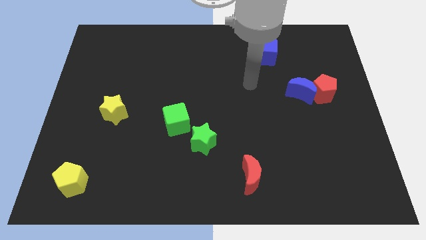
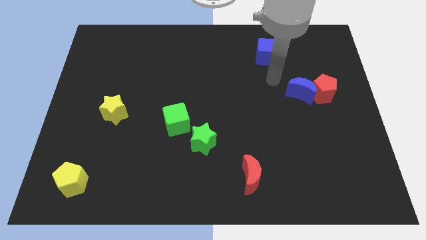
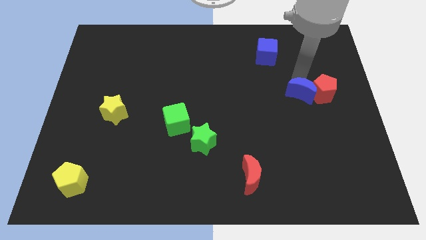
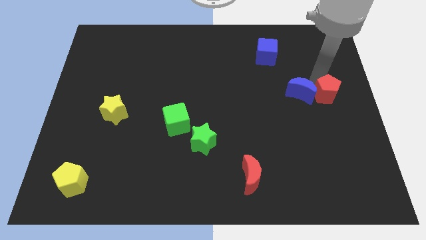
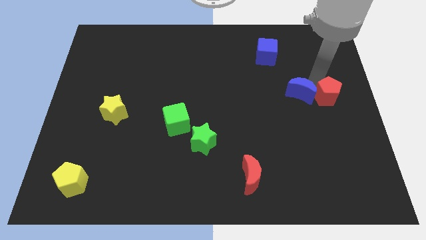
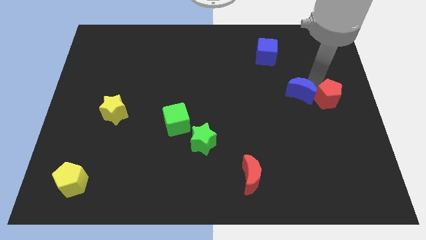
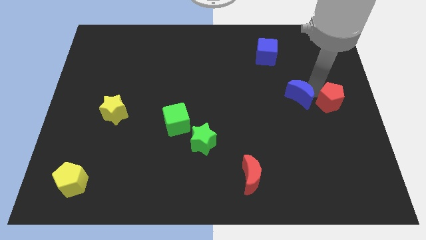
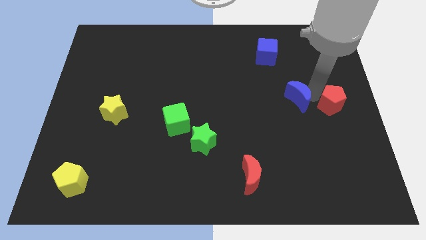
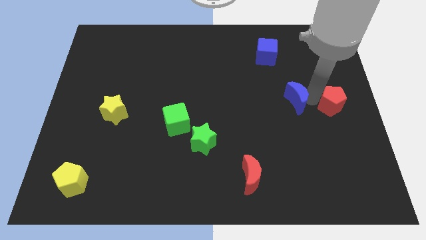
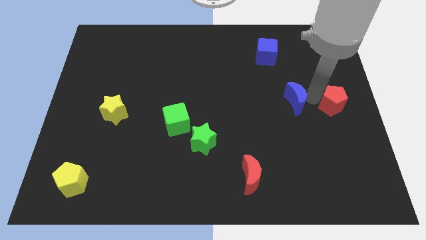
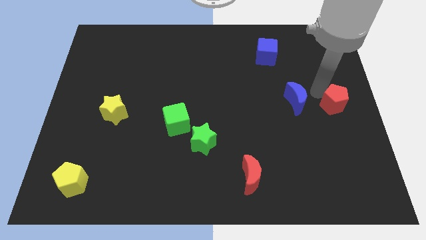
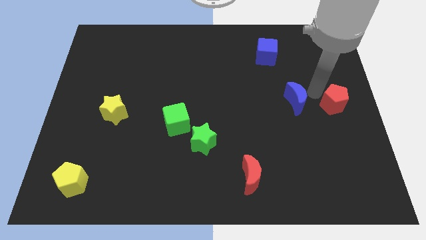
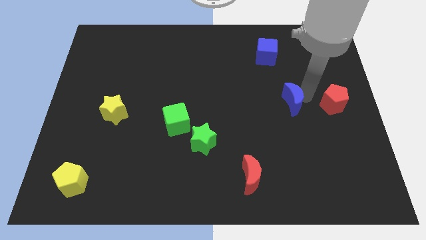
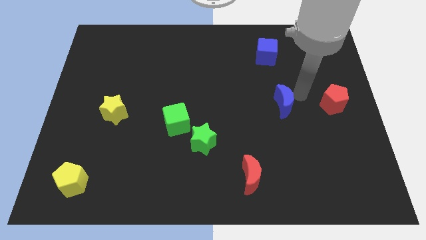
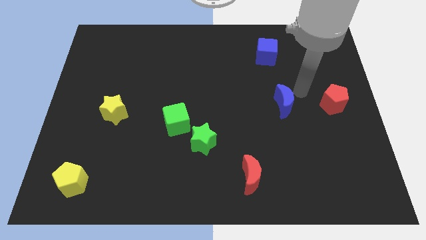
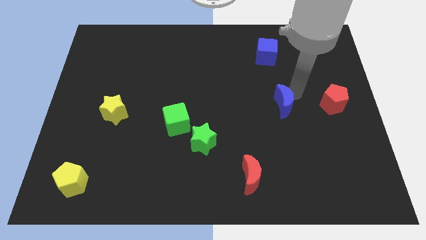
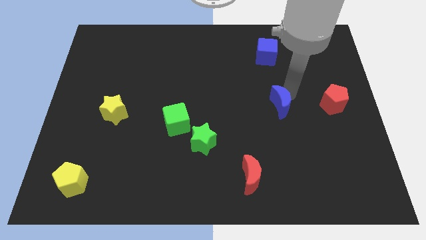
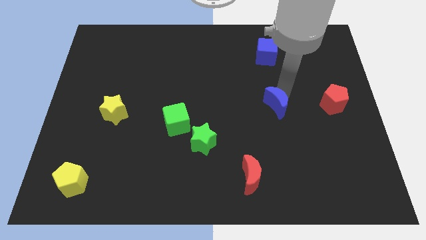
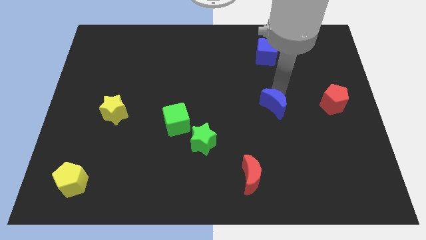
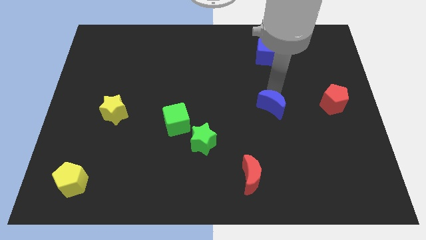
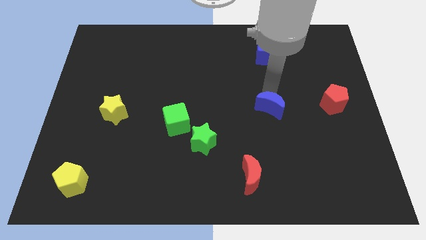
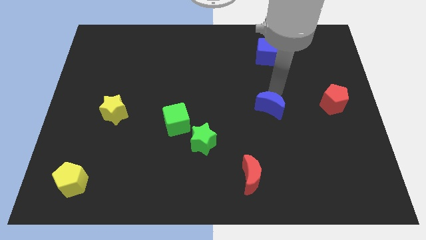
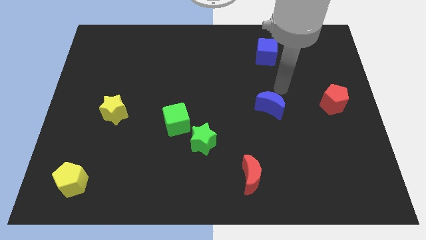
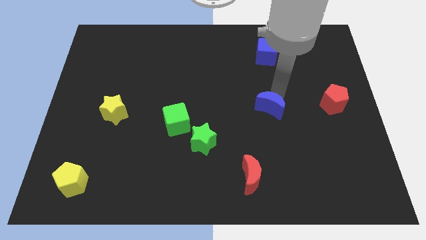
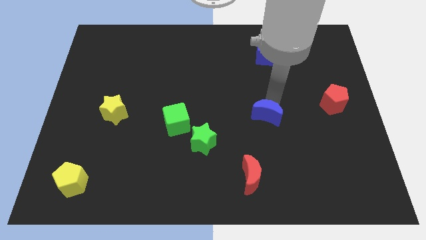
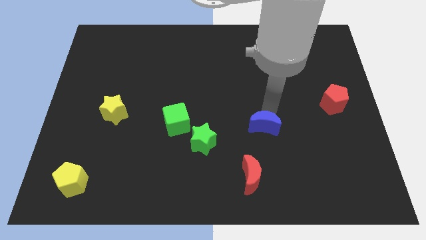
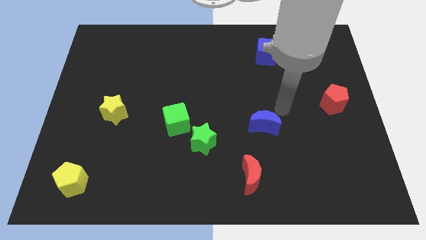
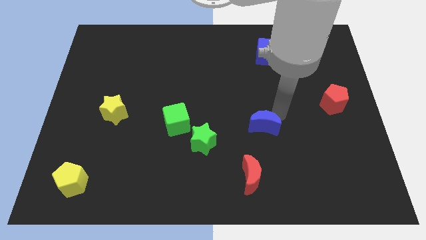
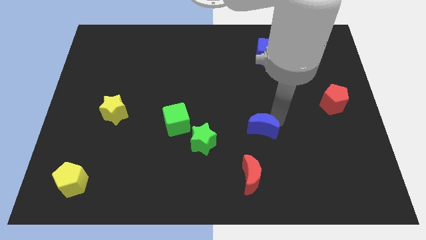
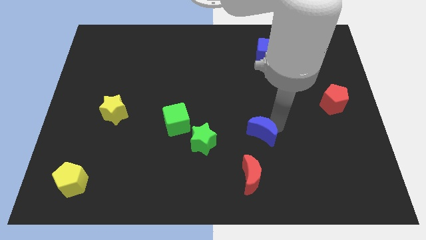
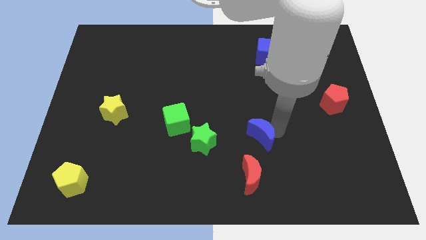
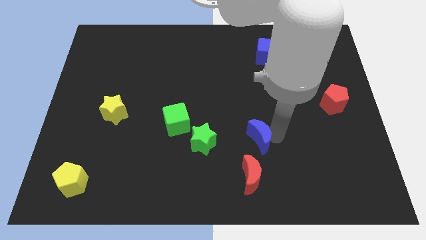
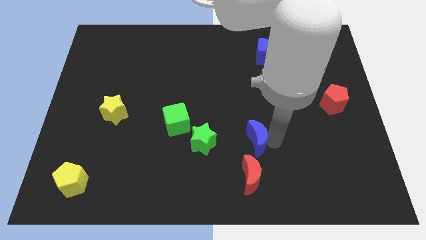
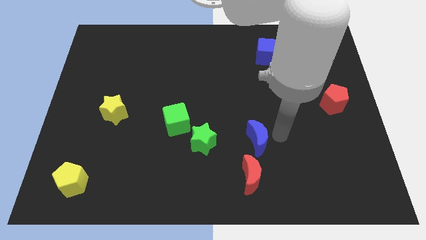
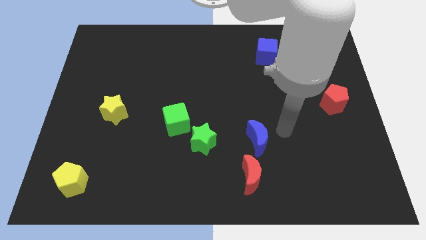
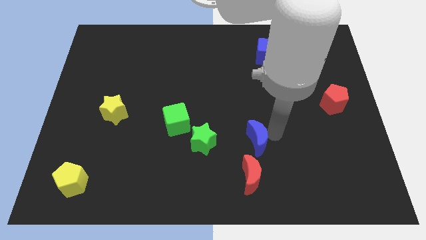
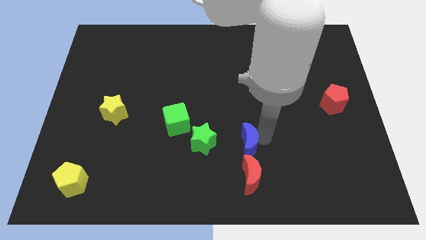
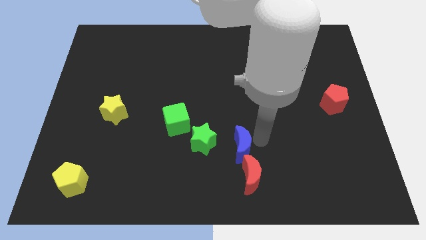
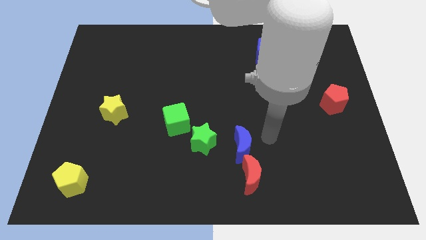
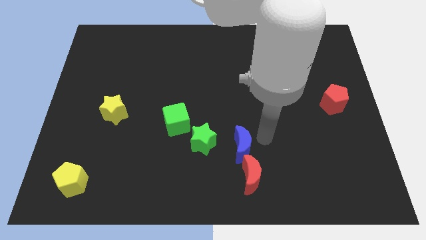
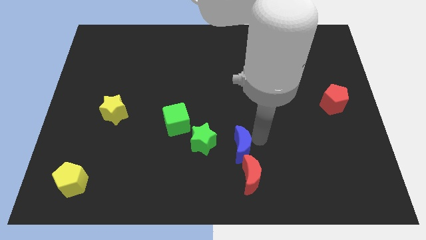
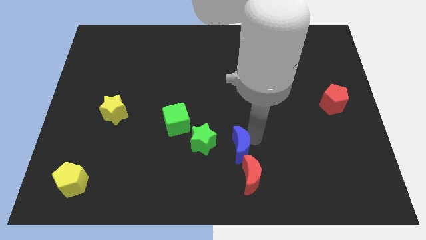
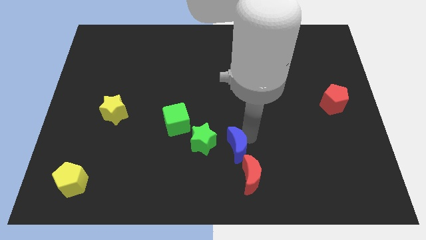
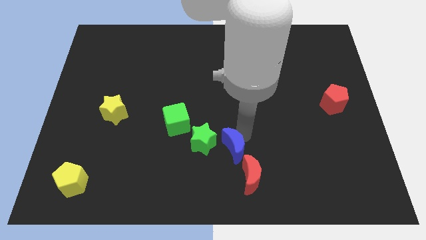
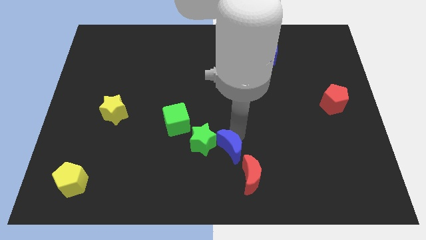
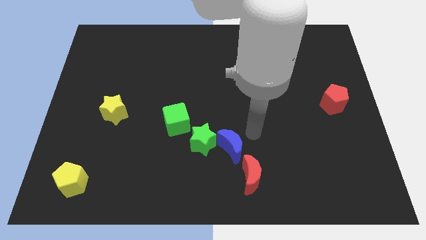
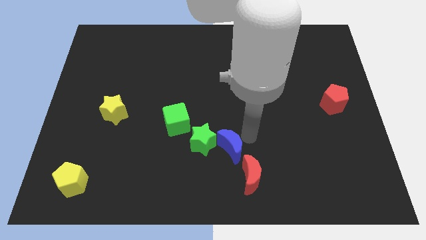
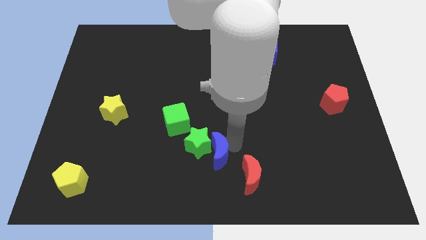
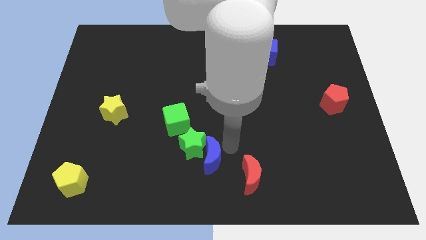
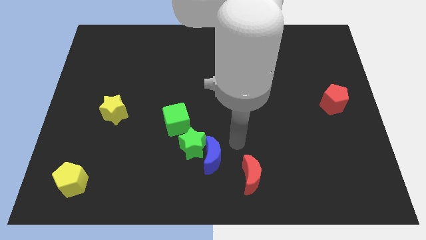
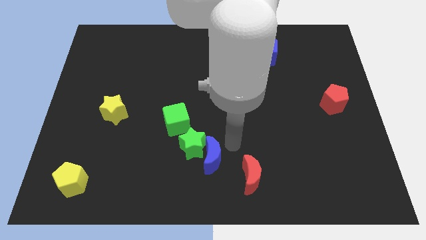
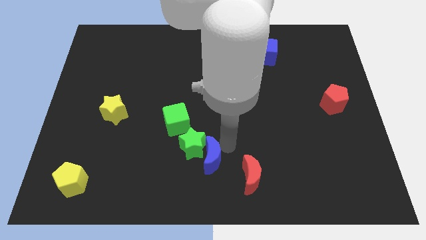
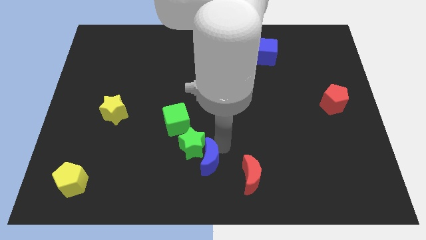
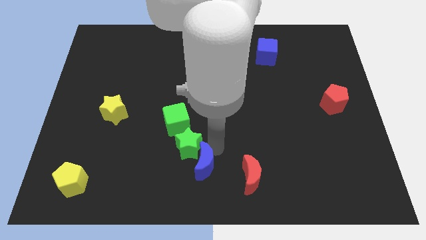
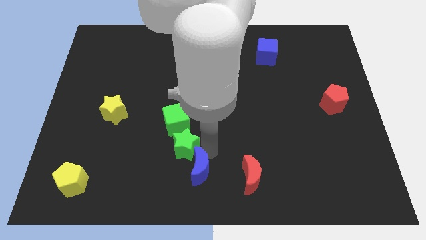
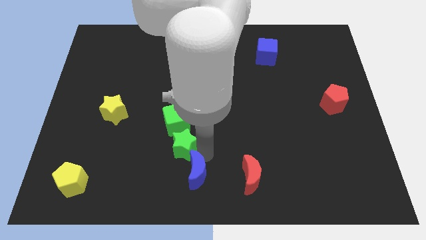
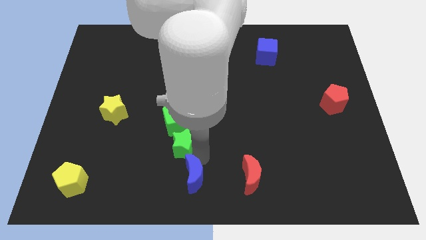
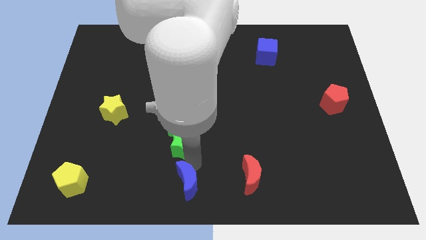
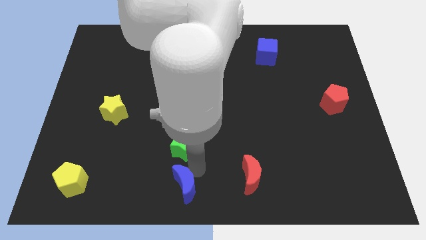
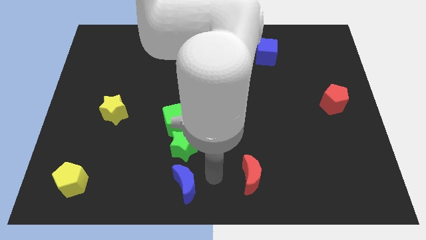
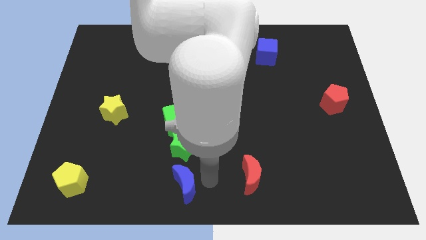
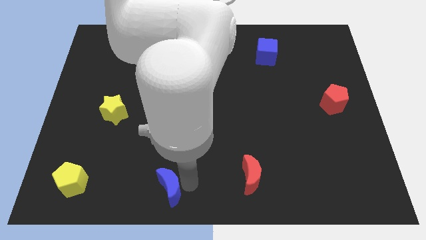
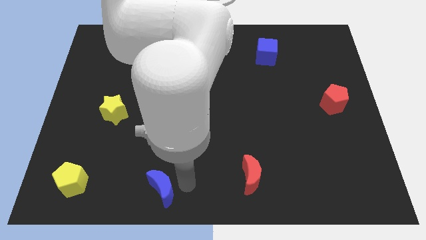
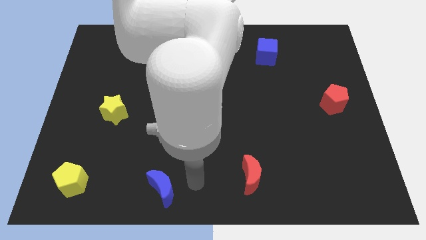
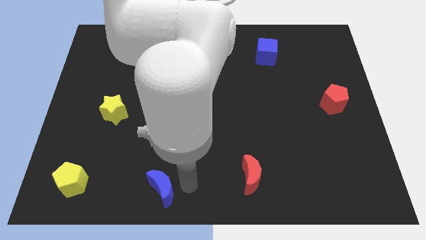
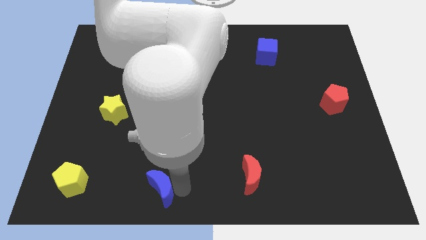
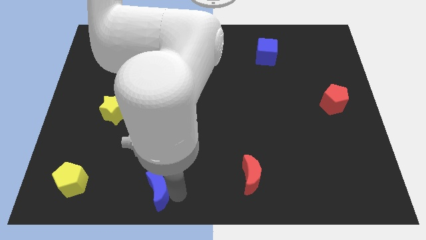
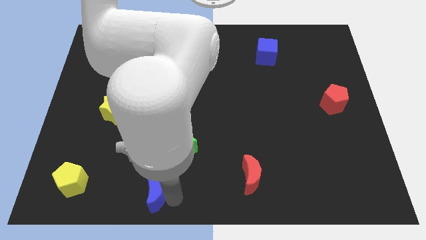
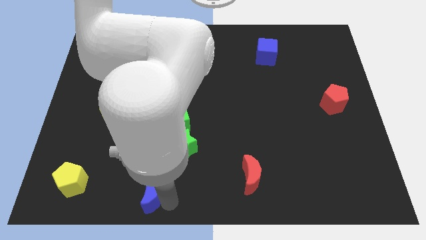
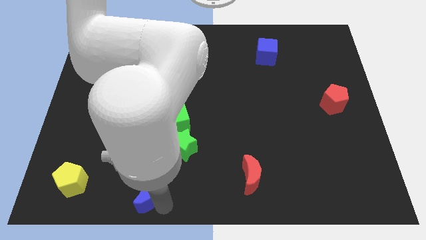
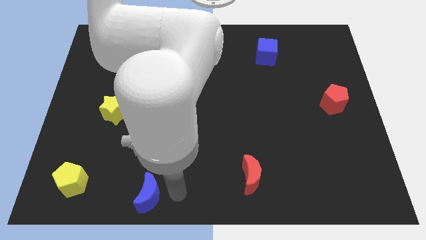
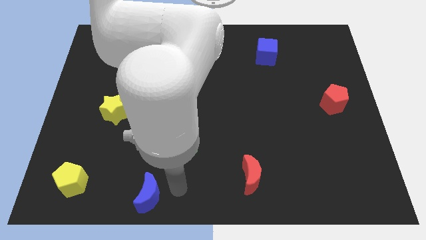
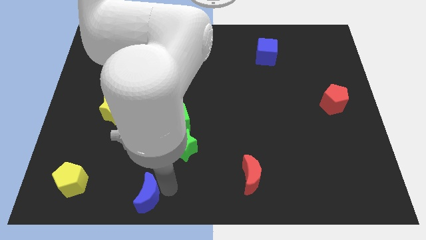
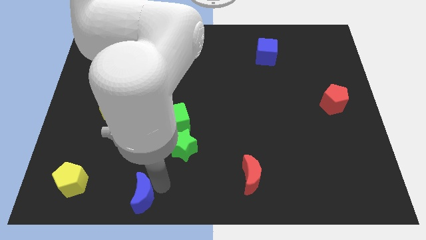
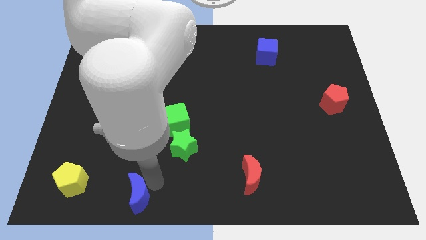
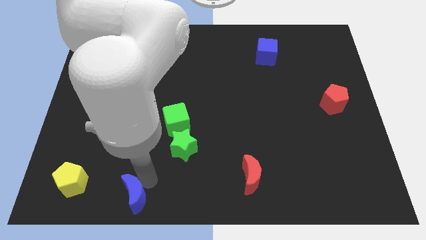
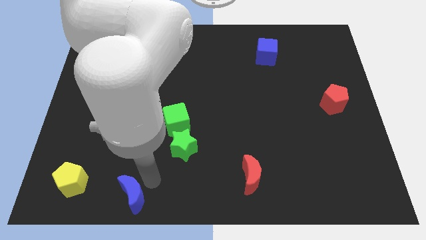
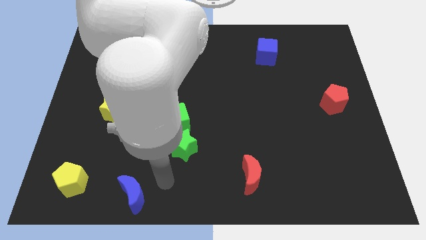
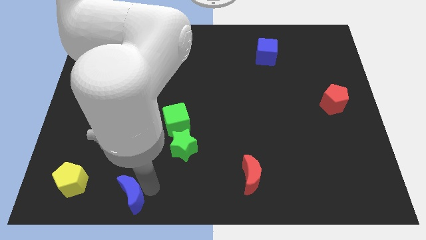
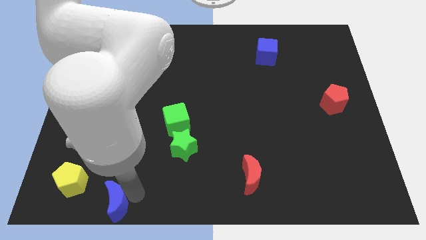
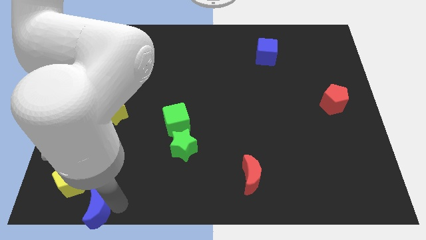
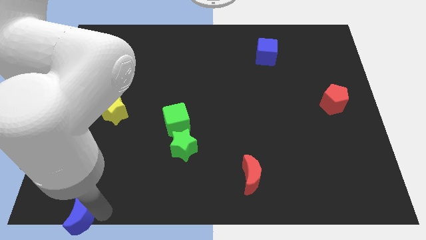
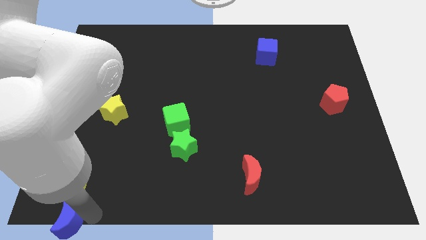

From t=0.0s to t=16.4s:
slide the blue moon to the lower left corner
